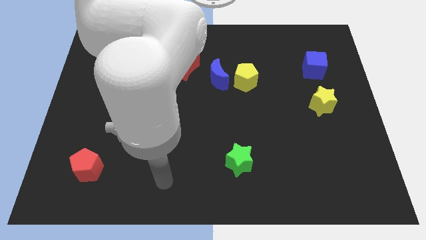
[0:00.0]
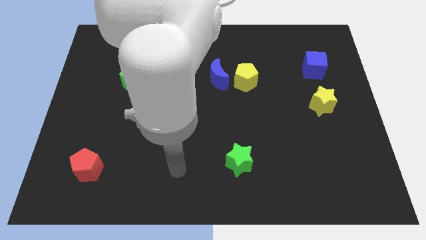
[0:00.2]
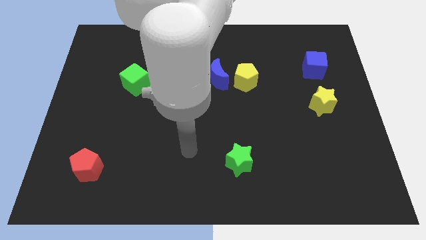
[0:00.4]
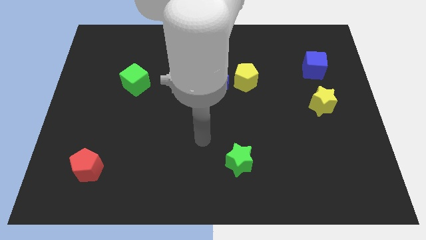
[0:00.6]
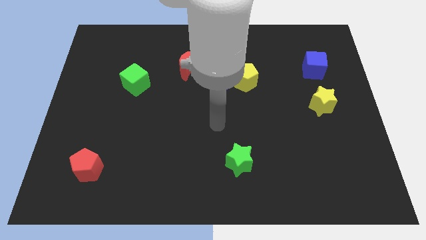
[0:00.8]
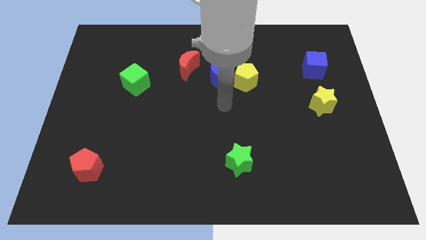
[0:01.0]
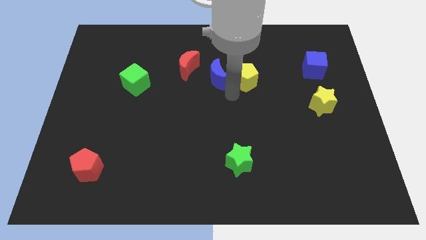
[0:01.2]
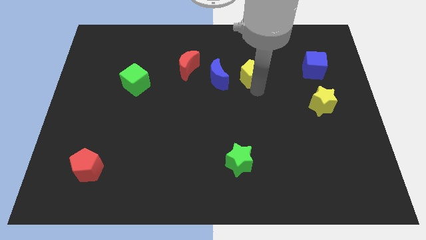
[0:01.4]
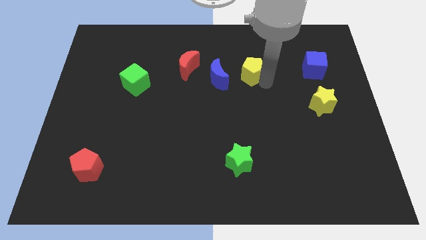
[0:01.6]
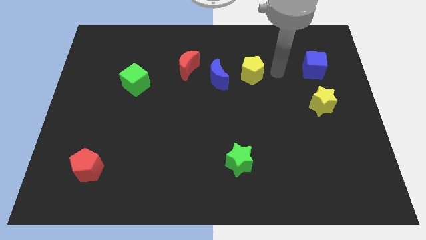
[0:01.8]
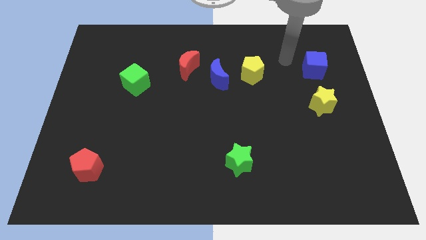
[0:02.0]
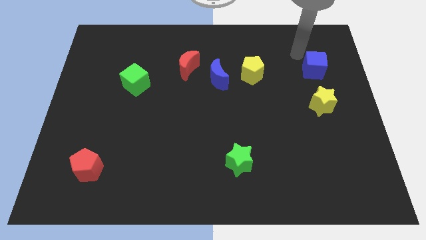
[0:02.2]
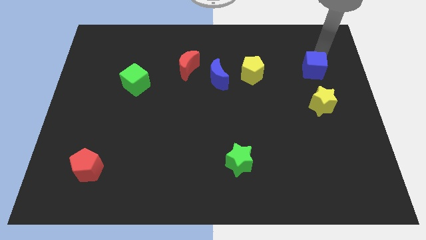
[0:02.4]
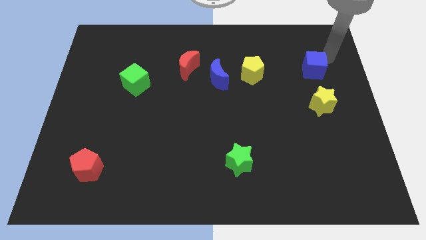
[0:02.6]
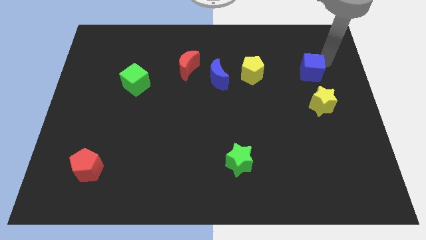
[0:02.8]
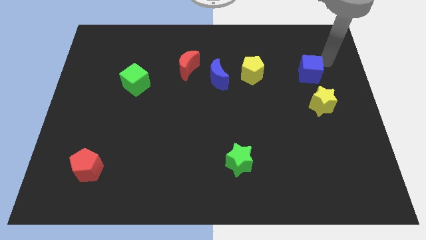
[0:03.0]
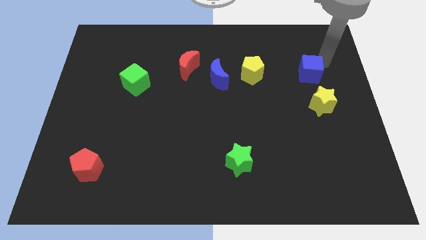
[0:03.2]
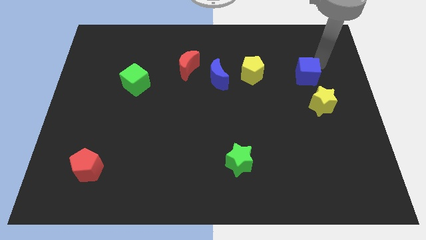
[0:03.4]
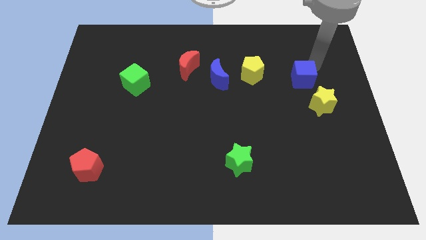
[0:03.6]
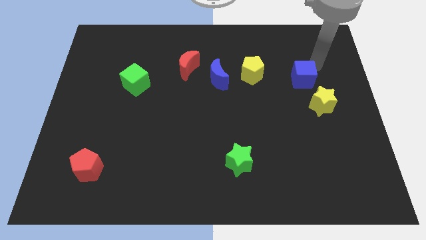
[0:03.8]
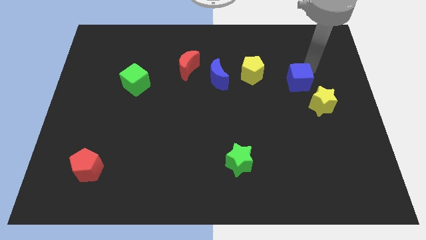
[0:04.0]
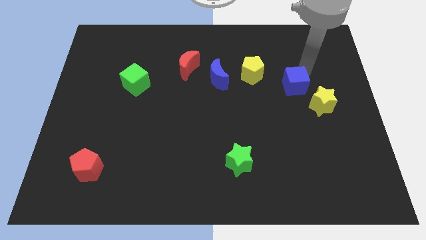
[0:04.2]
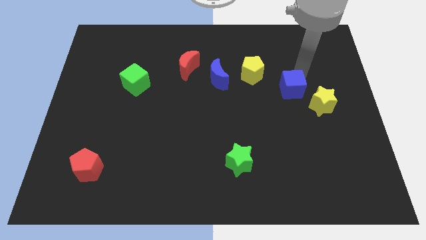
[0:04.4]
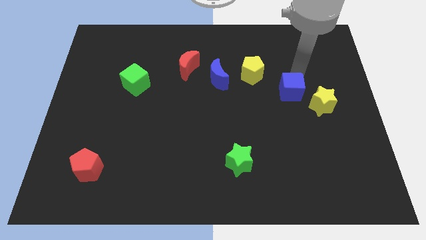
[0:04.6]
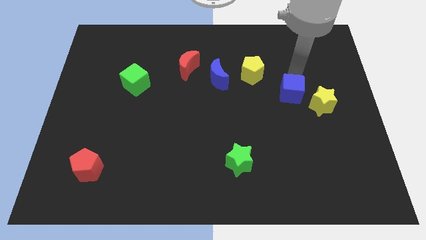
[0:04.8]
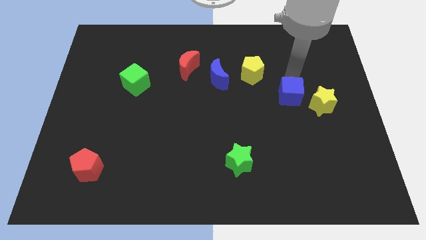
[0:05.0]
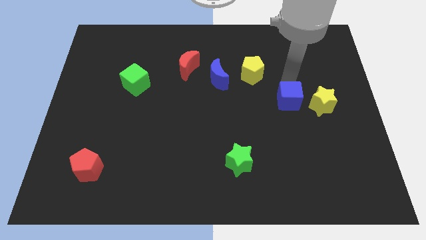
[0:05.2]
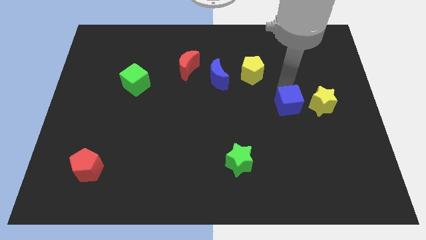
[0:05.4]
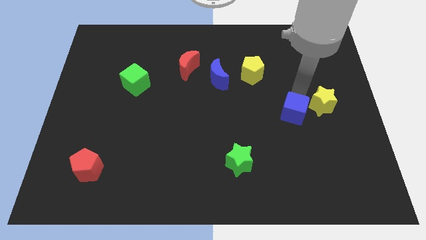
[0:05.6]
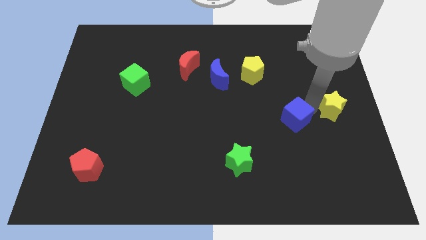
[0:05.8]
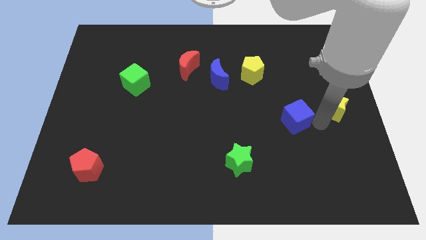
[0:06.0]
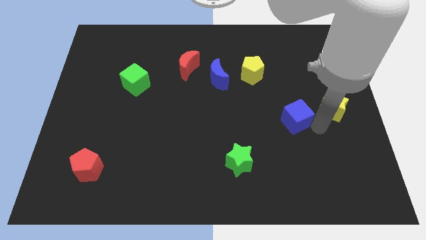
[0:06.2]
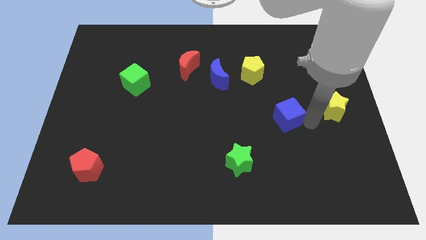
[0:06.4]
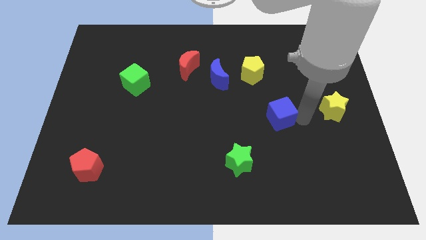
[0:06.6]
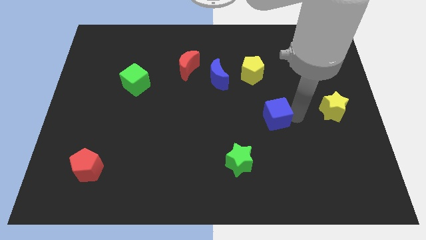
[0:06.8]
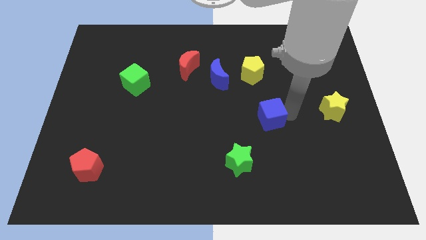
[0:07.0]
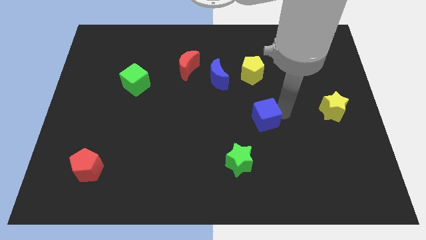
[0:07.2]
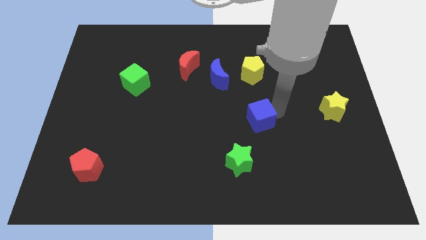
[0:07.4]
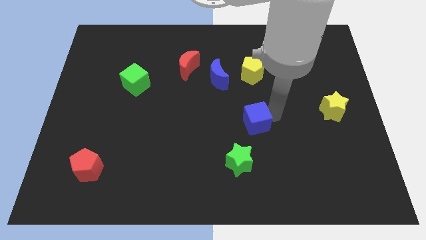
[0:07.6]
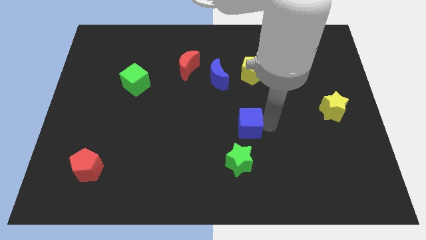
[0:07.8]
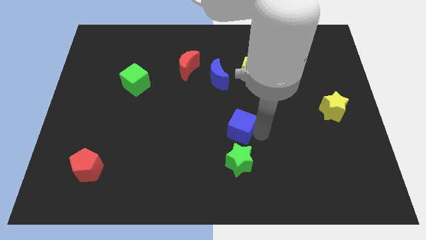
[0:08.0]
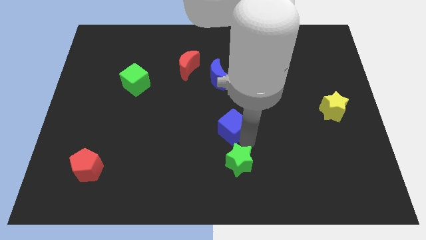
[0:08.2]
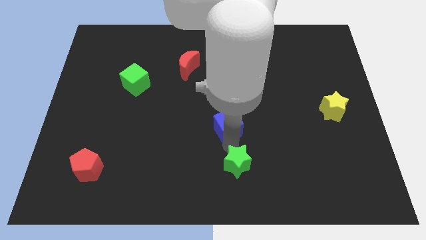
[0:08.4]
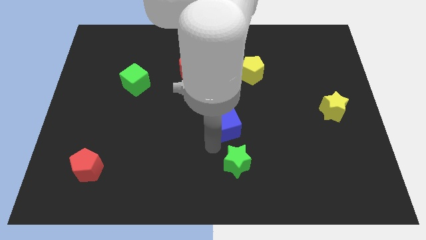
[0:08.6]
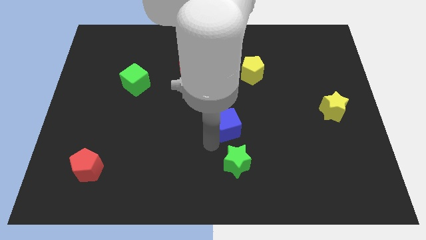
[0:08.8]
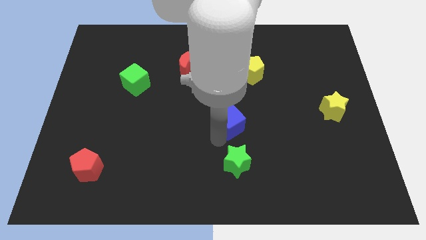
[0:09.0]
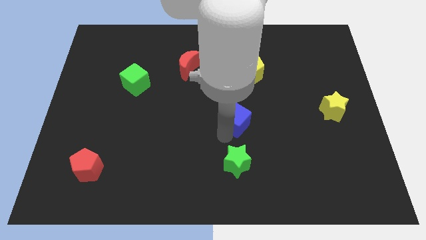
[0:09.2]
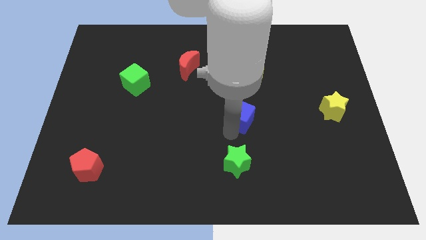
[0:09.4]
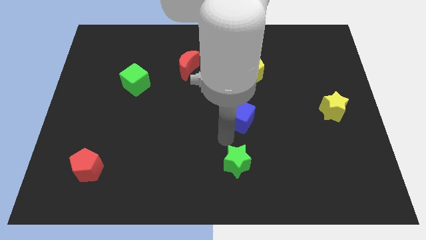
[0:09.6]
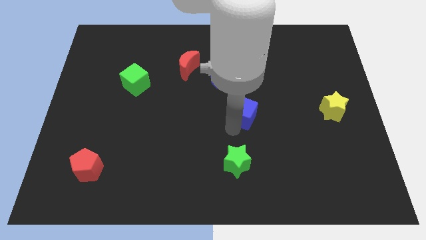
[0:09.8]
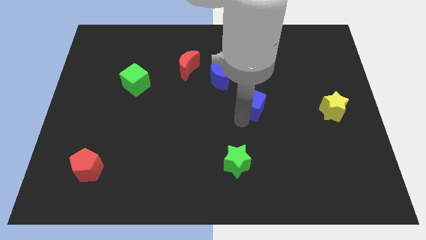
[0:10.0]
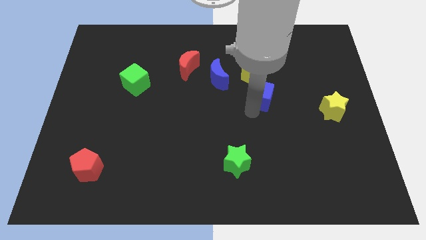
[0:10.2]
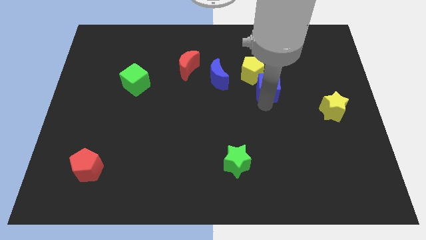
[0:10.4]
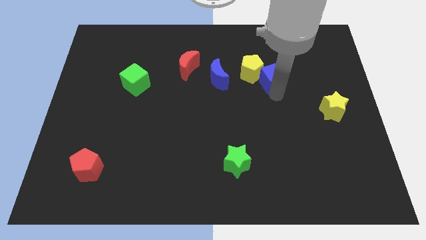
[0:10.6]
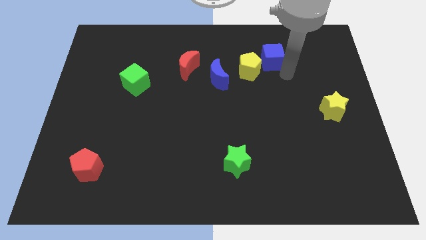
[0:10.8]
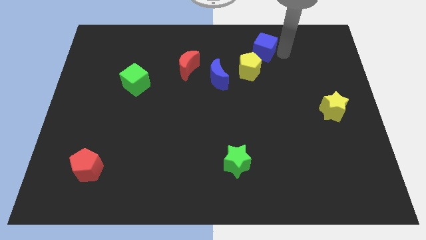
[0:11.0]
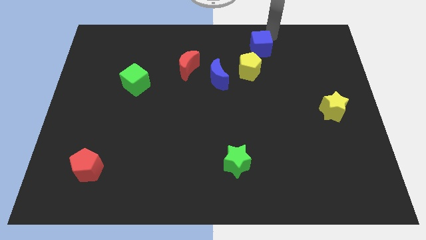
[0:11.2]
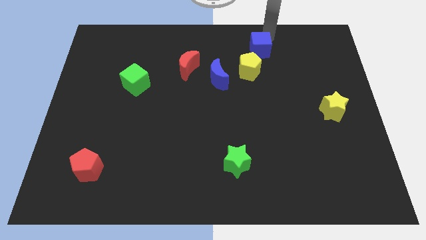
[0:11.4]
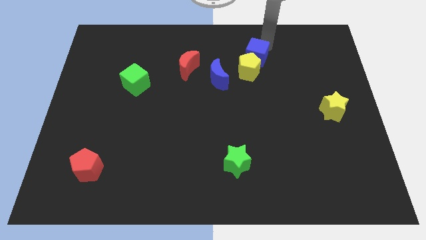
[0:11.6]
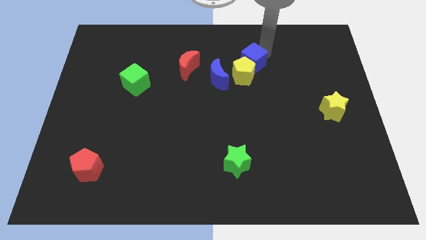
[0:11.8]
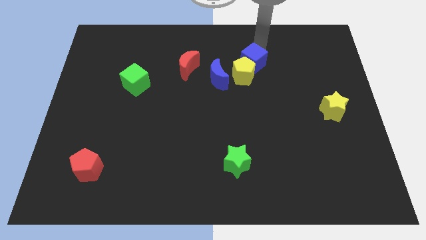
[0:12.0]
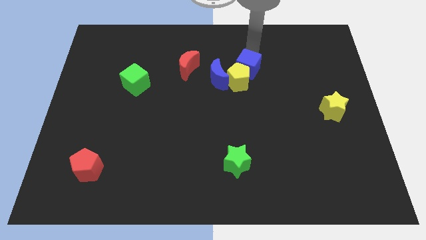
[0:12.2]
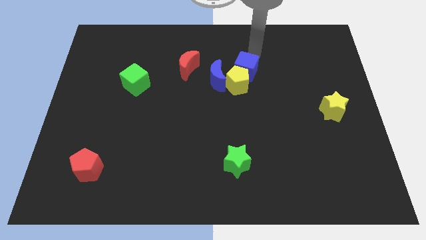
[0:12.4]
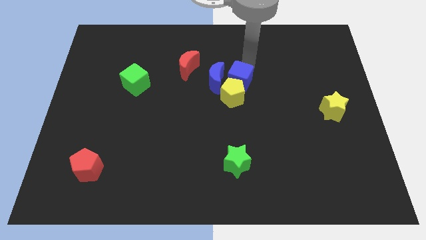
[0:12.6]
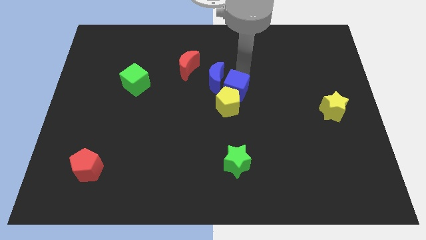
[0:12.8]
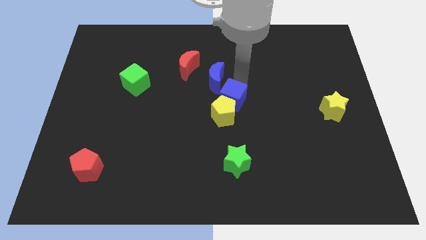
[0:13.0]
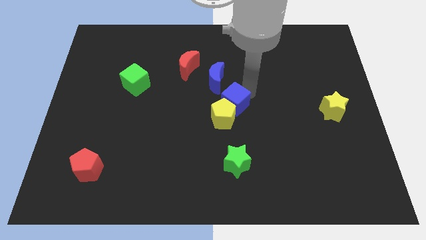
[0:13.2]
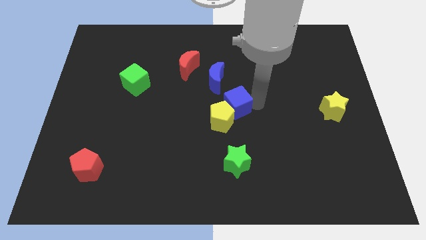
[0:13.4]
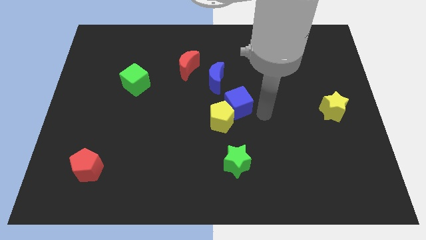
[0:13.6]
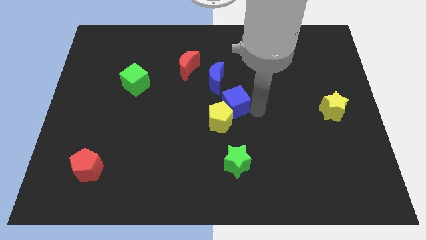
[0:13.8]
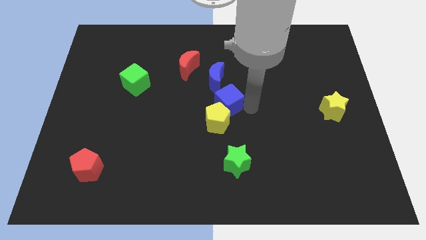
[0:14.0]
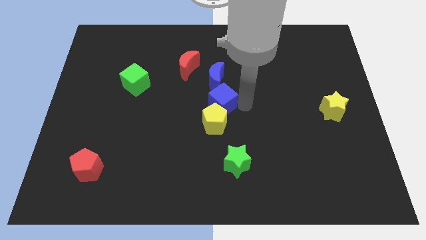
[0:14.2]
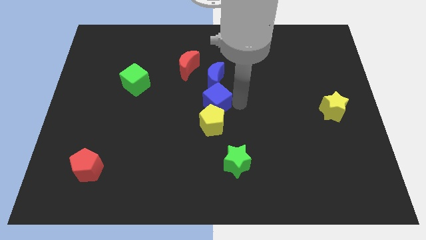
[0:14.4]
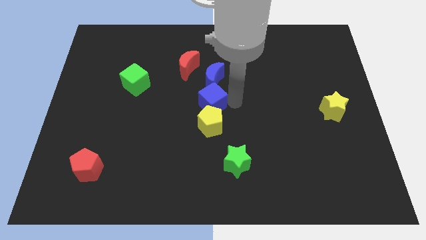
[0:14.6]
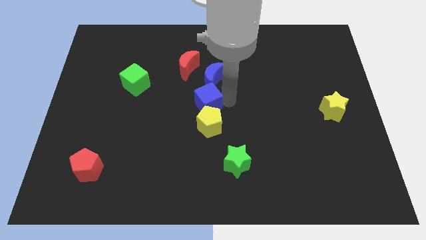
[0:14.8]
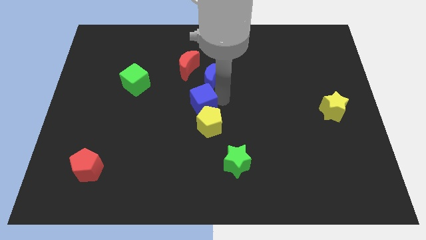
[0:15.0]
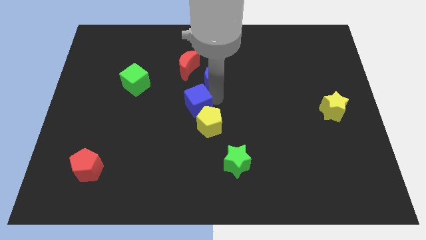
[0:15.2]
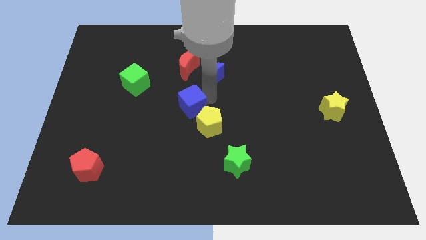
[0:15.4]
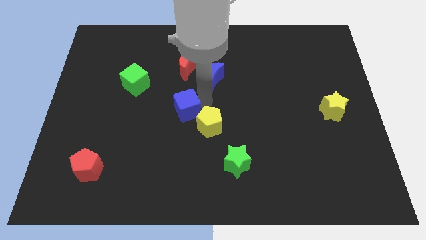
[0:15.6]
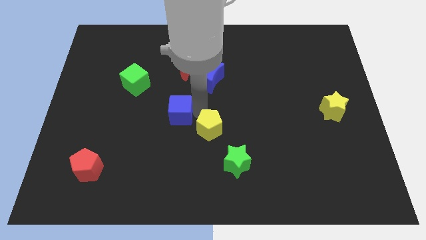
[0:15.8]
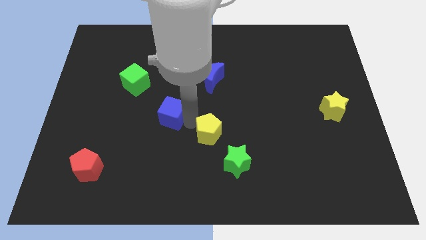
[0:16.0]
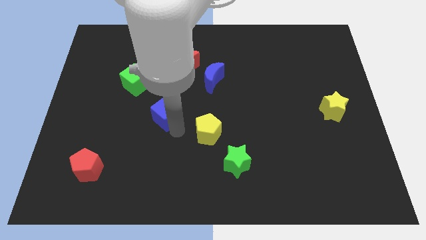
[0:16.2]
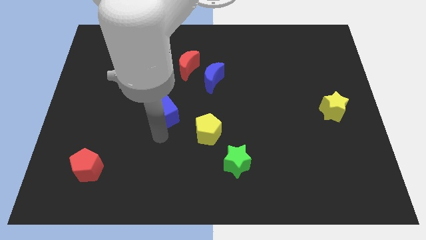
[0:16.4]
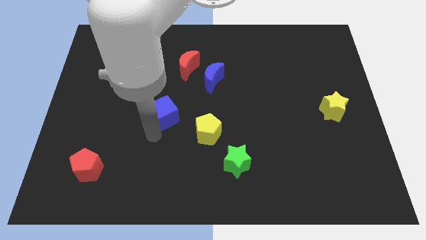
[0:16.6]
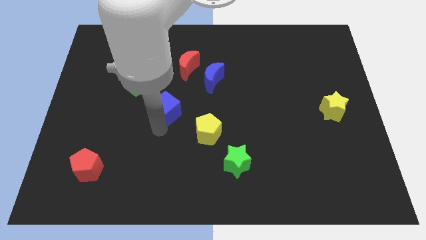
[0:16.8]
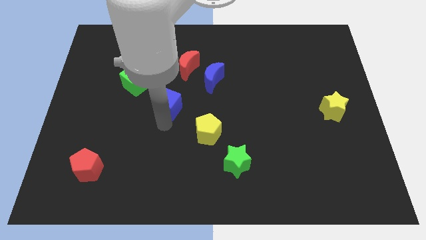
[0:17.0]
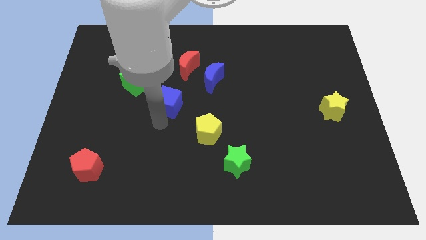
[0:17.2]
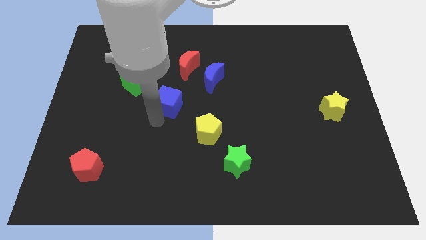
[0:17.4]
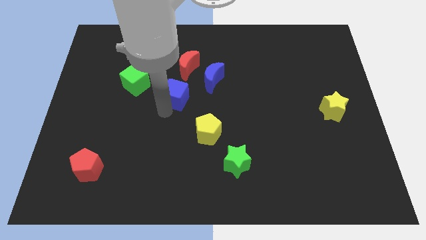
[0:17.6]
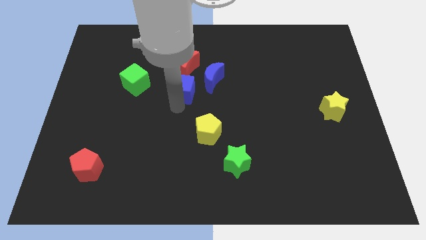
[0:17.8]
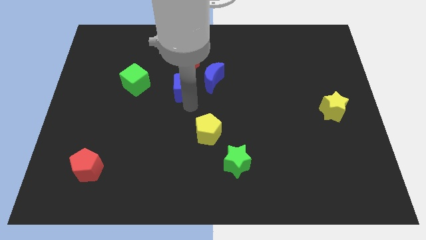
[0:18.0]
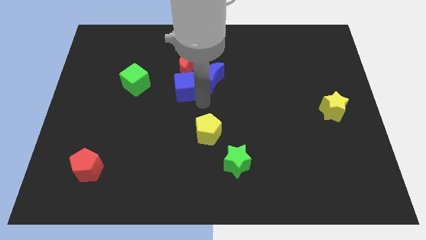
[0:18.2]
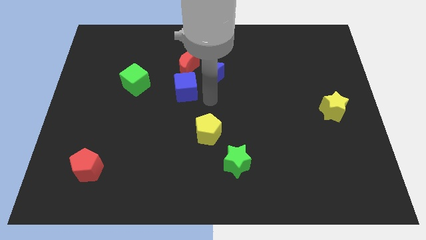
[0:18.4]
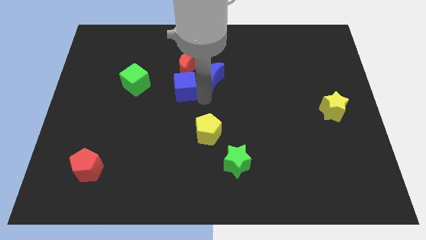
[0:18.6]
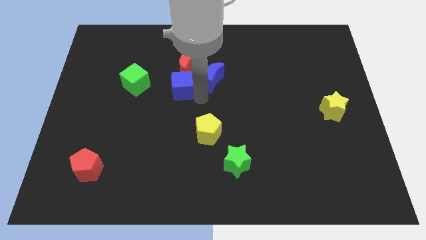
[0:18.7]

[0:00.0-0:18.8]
move the blue cube to the bottom left of the red moon
